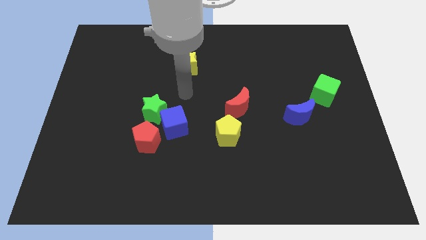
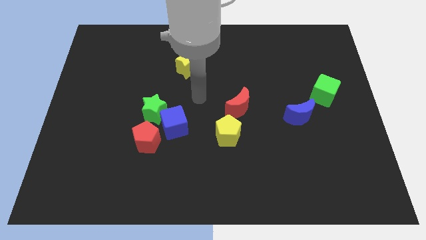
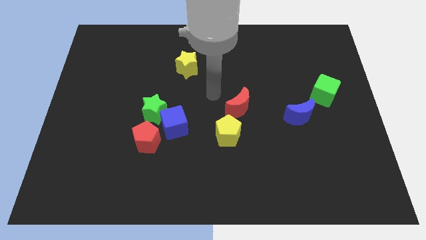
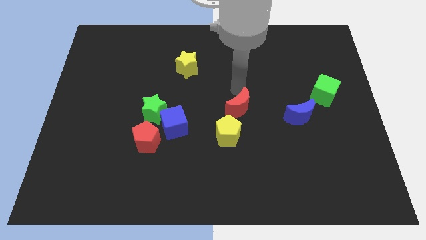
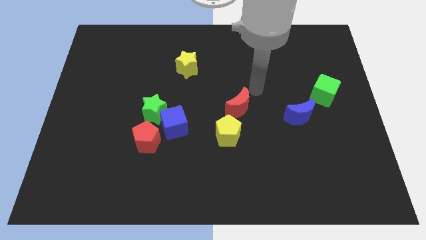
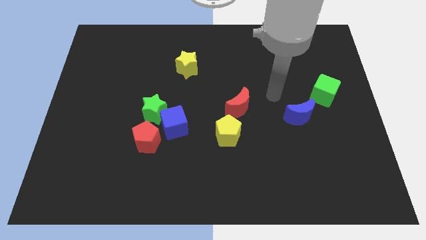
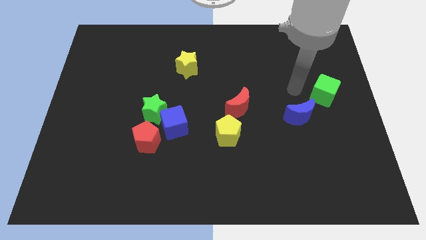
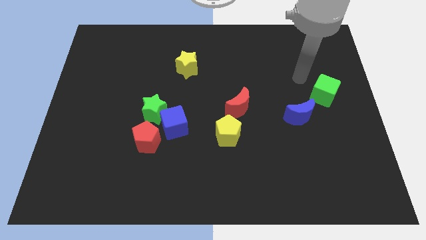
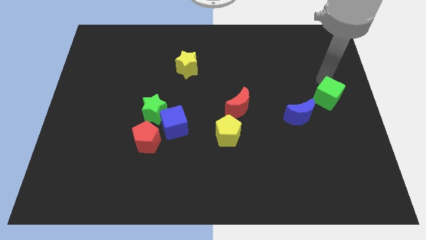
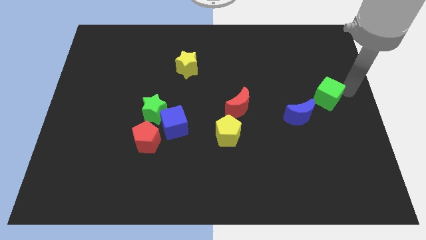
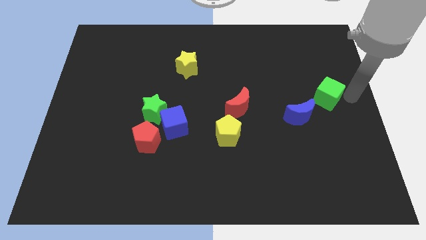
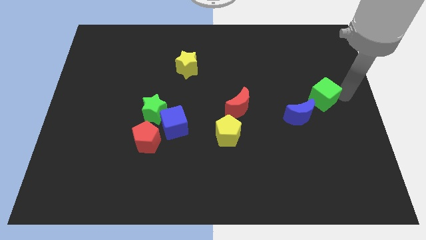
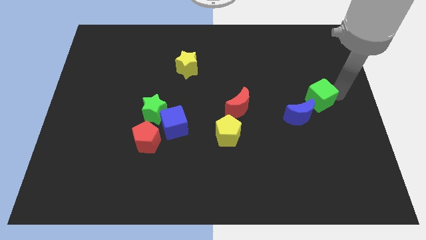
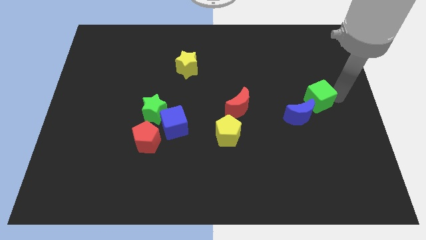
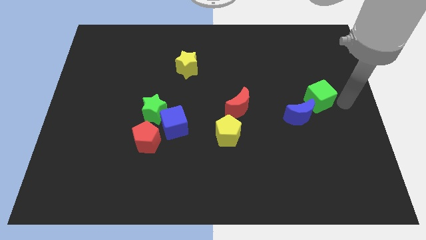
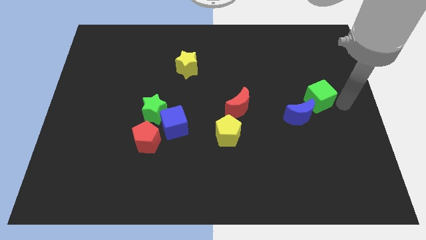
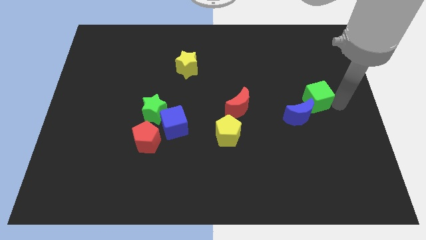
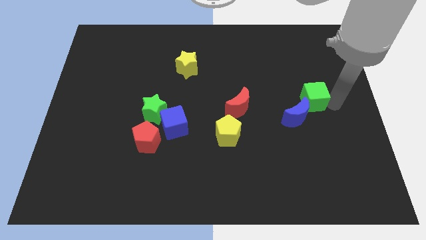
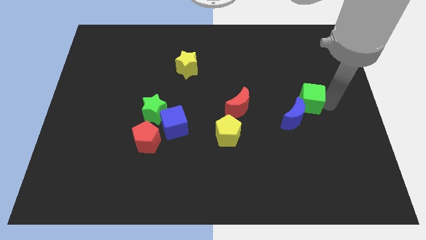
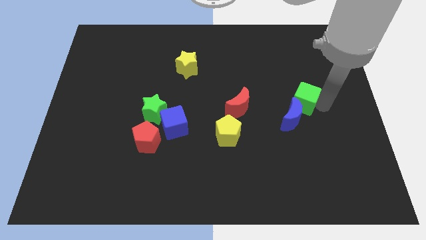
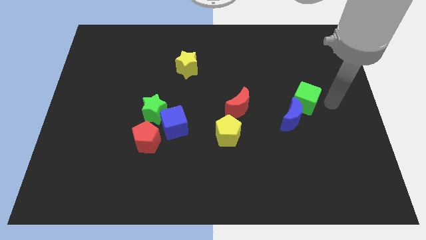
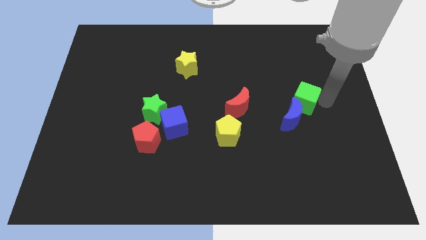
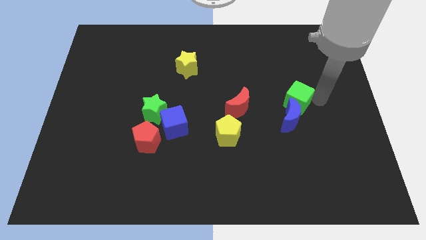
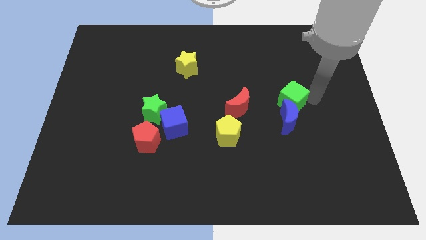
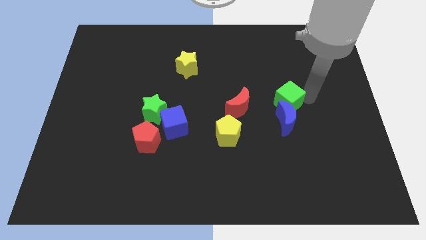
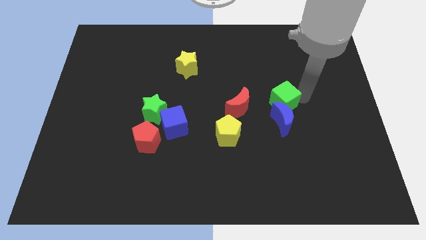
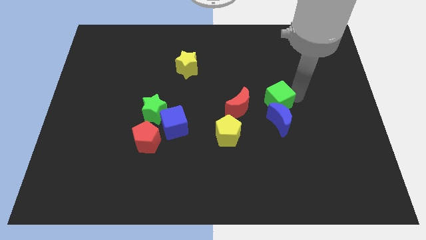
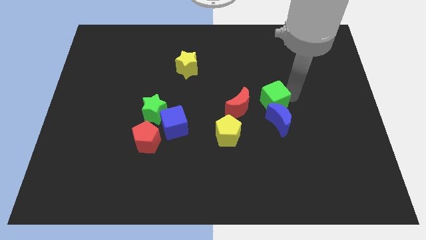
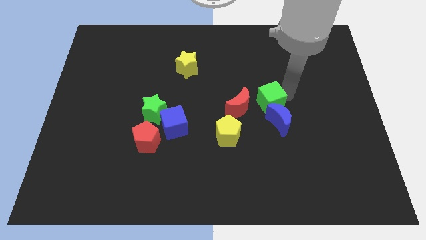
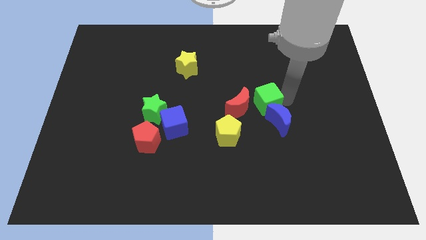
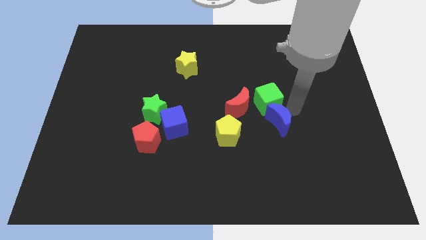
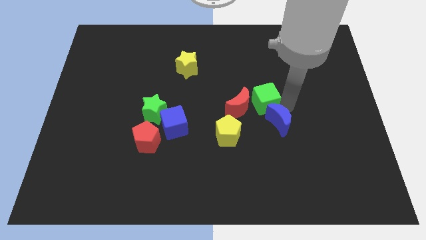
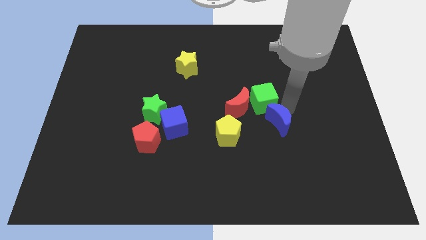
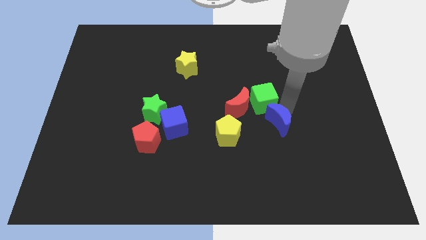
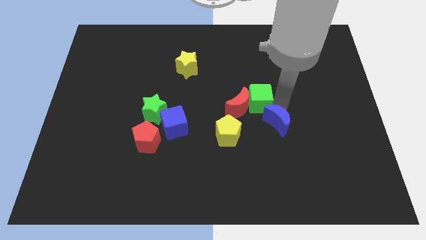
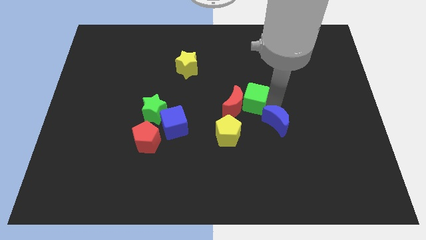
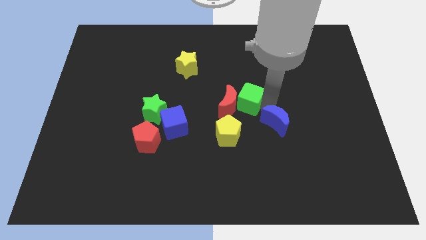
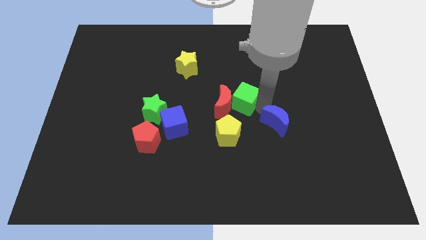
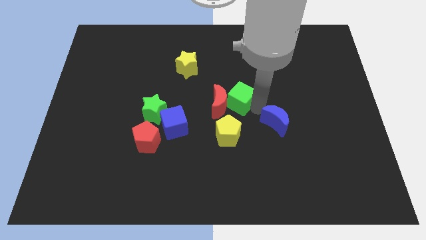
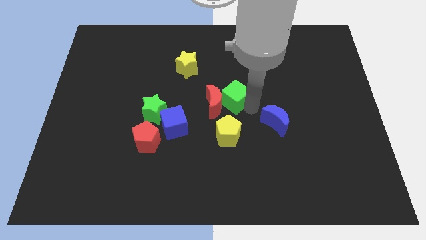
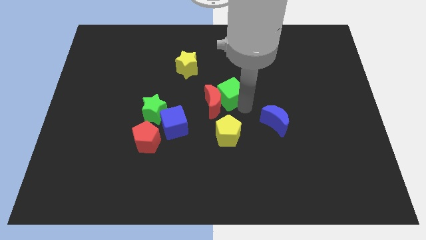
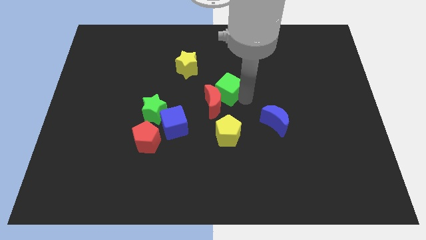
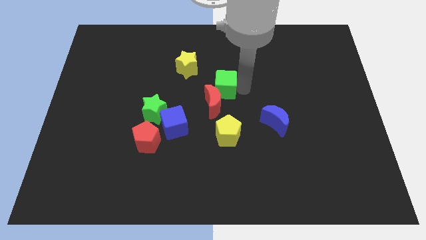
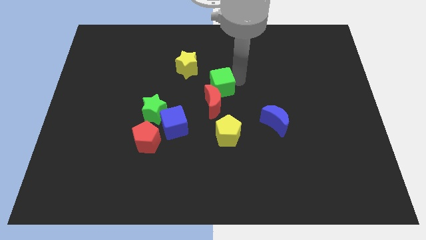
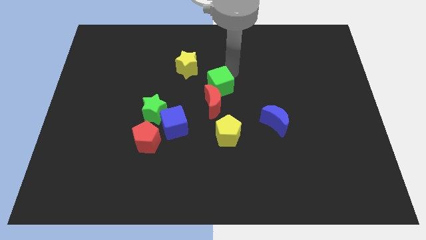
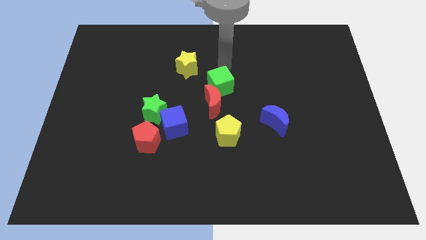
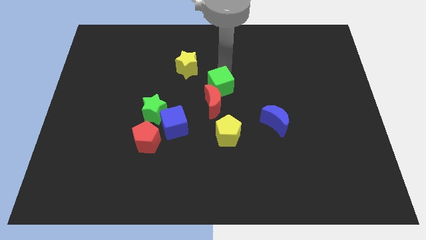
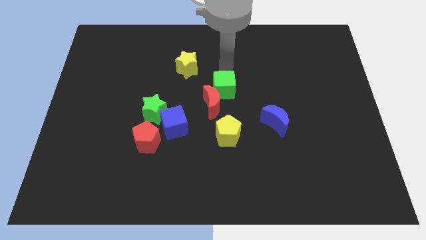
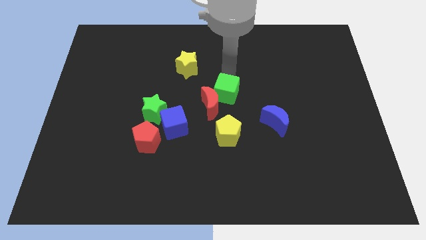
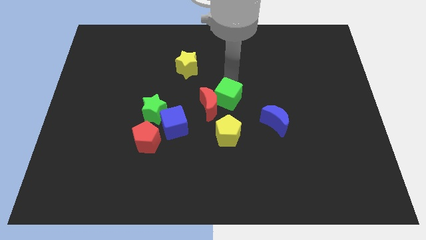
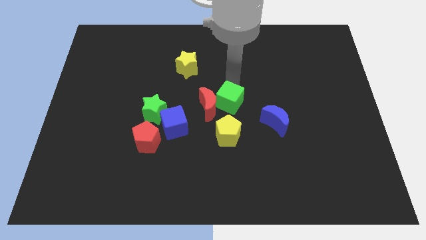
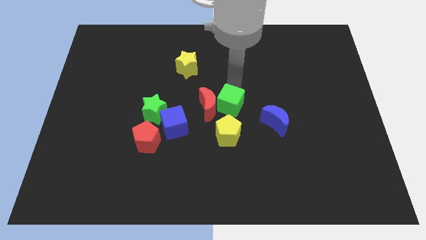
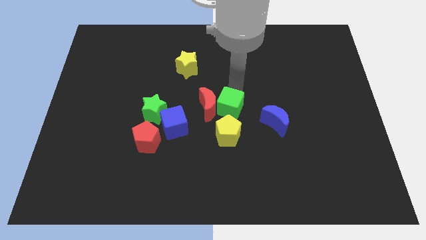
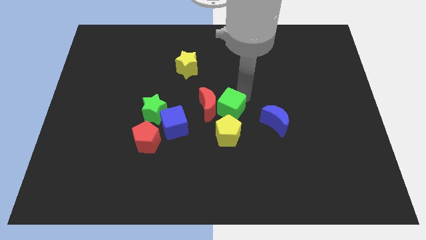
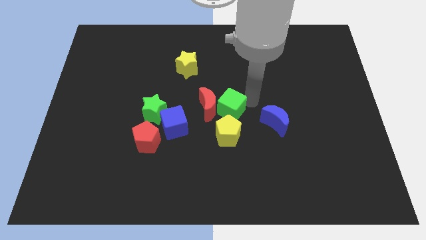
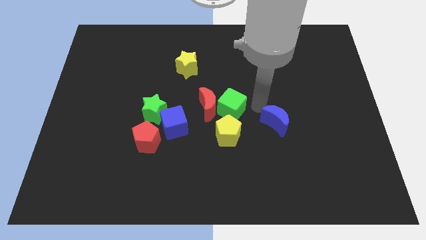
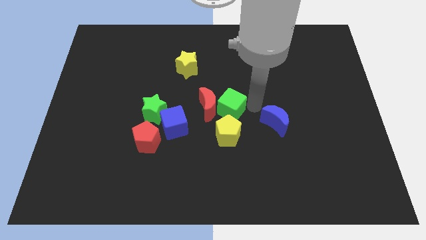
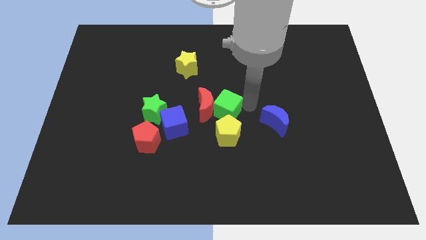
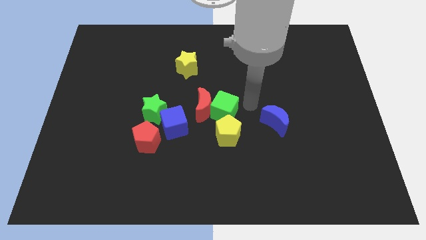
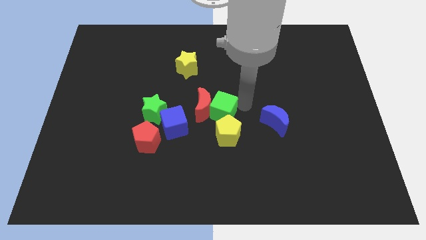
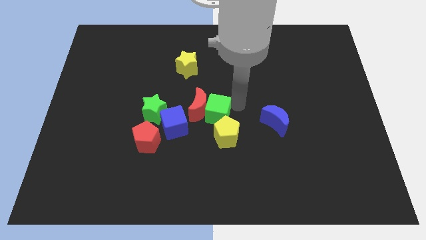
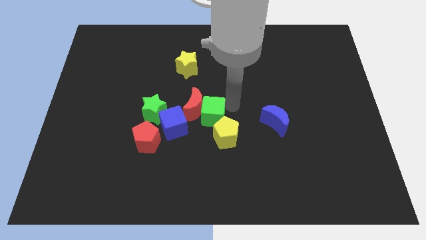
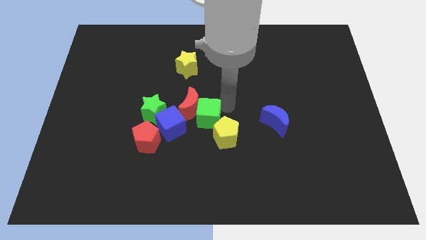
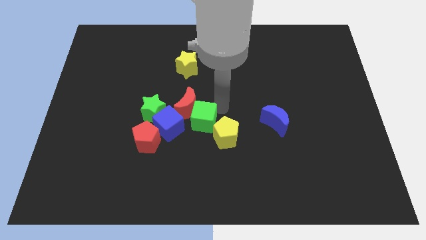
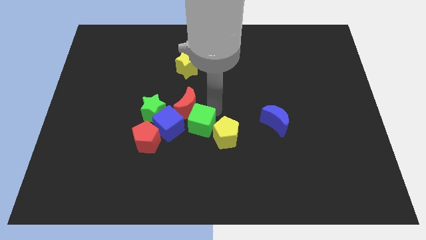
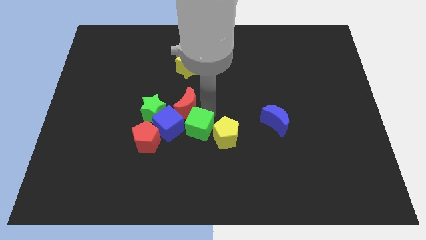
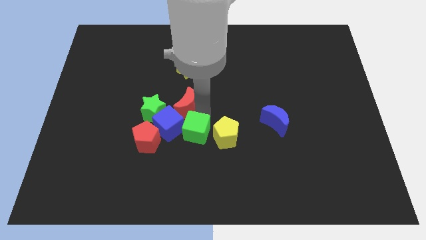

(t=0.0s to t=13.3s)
move the green cube next to the blue cube
